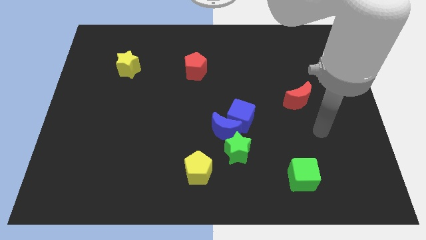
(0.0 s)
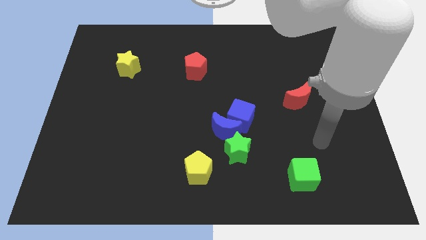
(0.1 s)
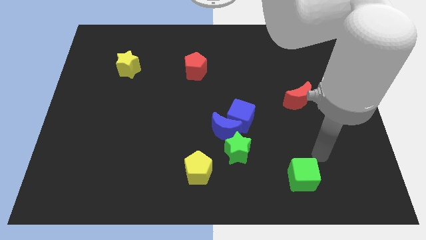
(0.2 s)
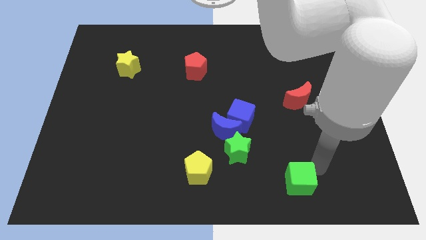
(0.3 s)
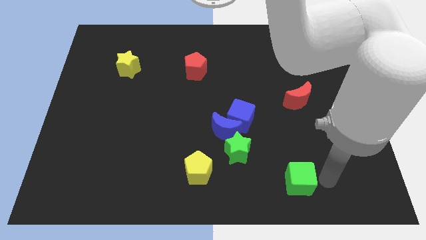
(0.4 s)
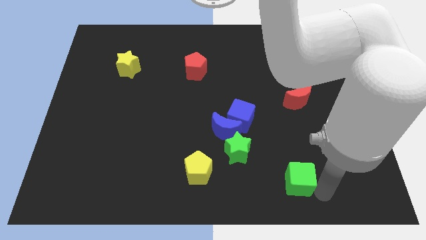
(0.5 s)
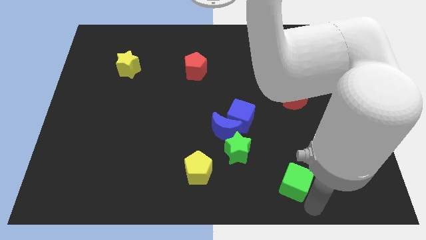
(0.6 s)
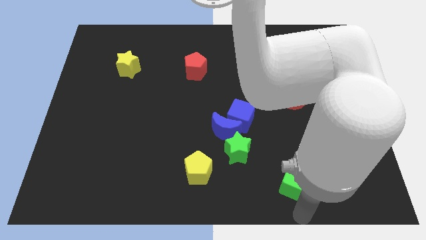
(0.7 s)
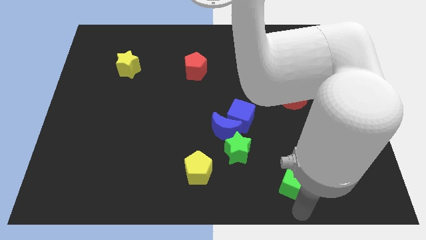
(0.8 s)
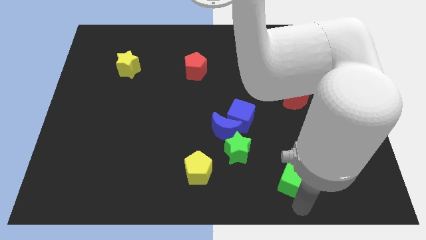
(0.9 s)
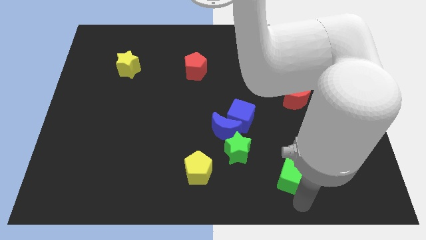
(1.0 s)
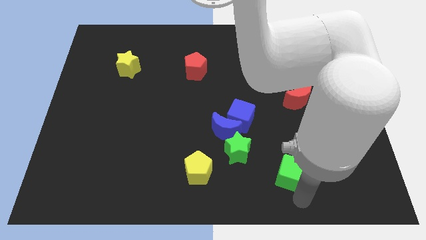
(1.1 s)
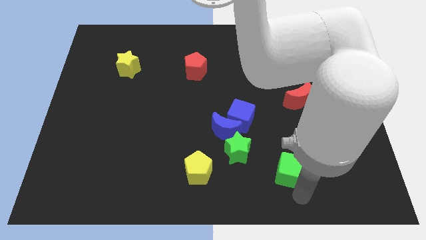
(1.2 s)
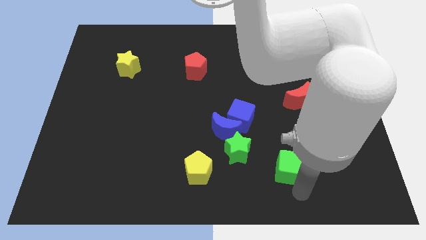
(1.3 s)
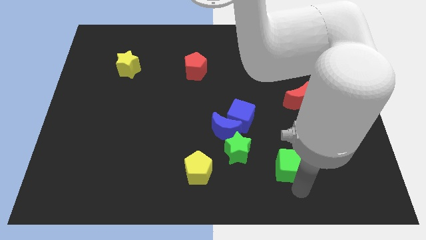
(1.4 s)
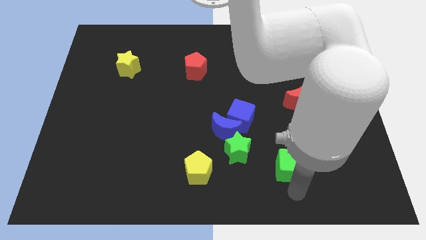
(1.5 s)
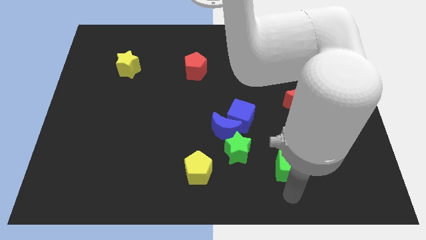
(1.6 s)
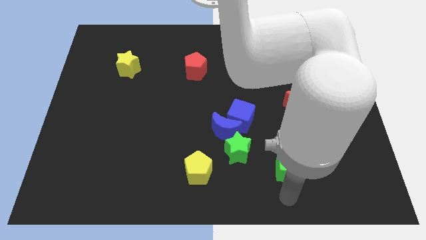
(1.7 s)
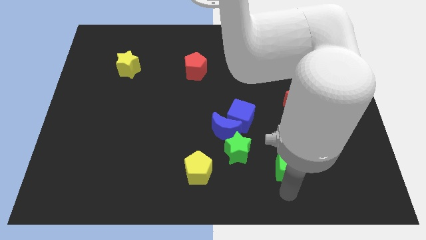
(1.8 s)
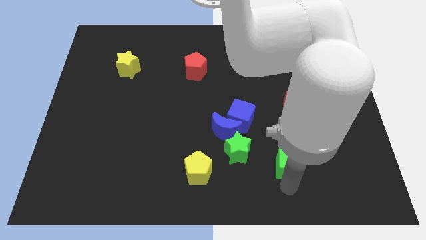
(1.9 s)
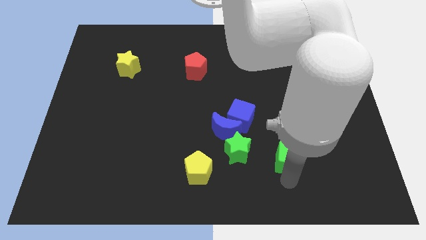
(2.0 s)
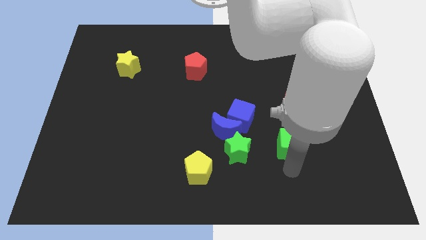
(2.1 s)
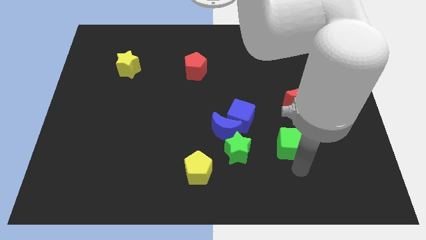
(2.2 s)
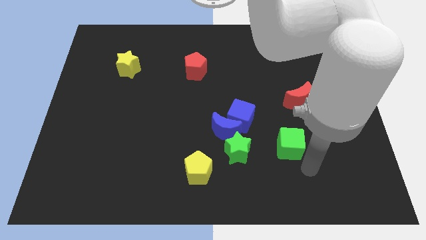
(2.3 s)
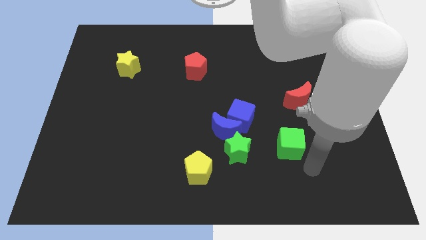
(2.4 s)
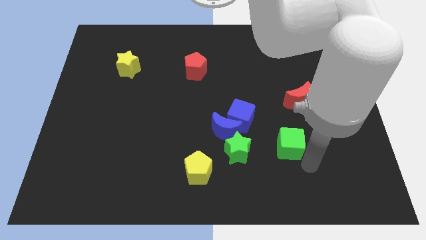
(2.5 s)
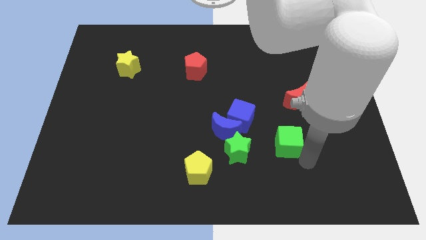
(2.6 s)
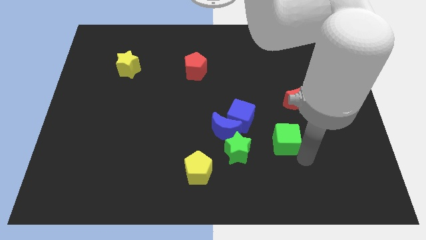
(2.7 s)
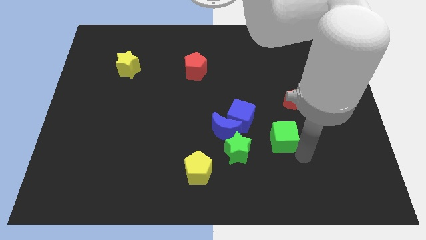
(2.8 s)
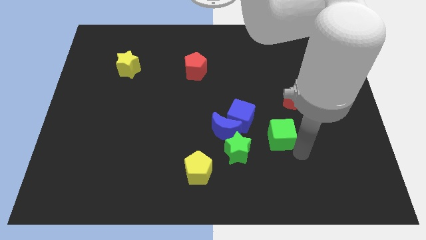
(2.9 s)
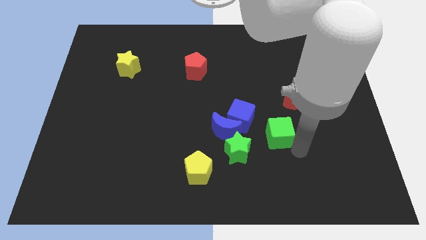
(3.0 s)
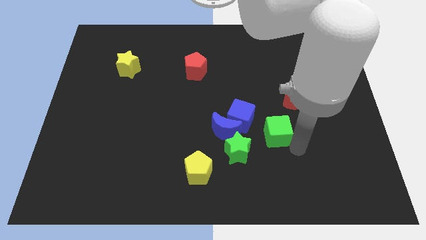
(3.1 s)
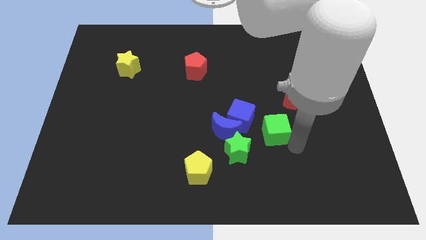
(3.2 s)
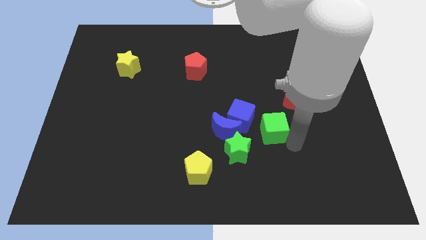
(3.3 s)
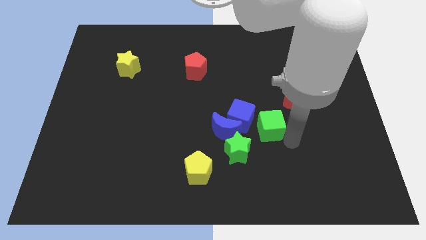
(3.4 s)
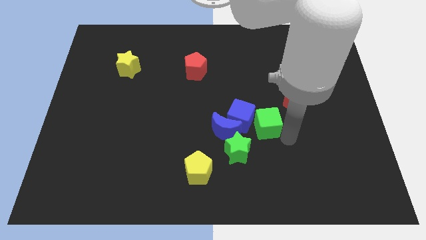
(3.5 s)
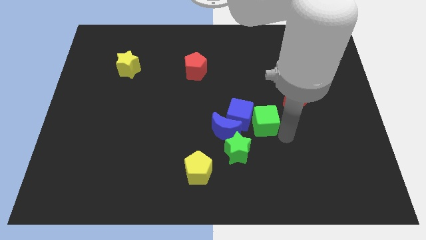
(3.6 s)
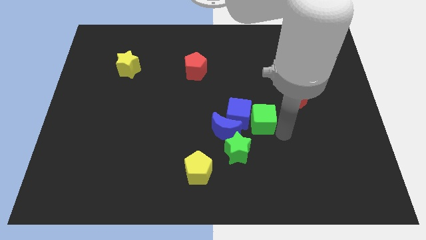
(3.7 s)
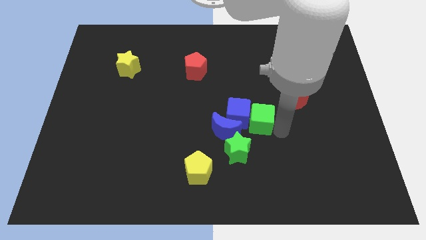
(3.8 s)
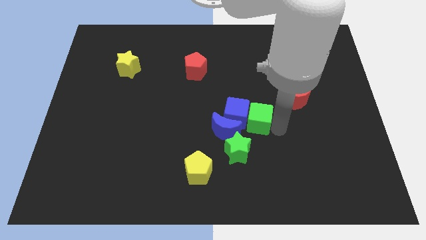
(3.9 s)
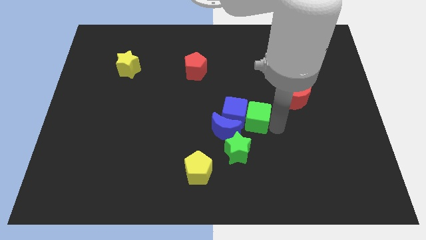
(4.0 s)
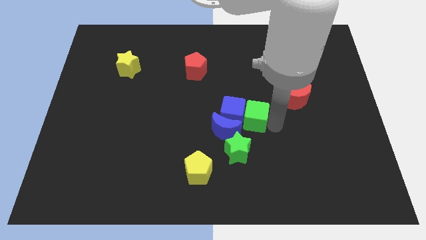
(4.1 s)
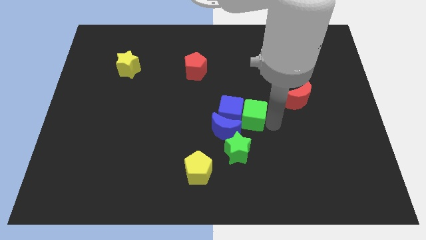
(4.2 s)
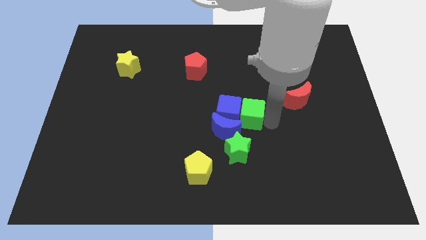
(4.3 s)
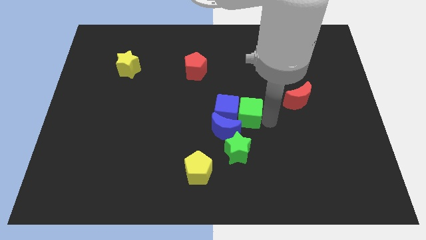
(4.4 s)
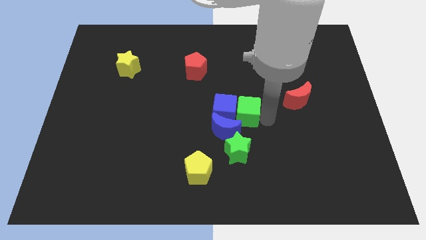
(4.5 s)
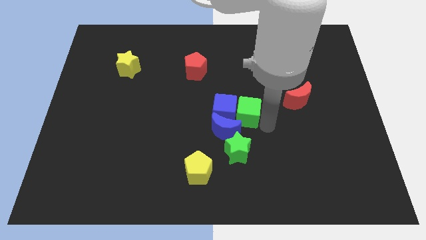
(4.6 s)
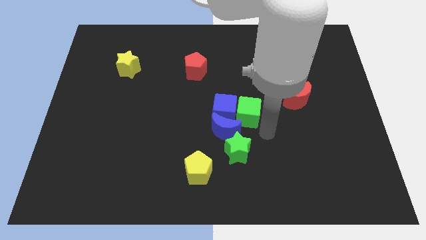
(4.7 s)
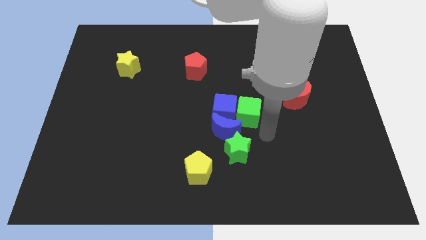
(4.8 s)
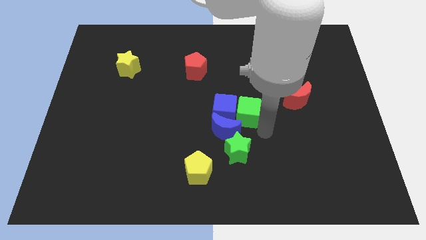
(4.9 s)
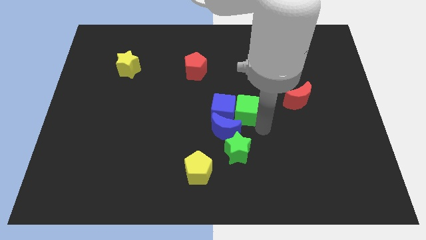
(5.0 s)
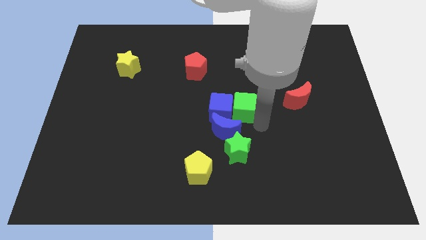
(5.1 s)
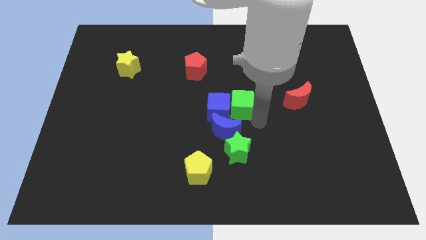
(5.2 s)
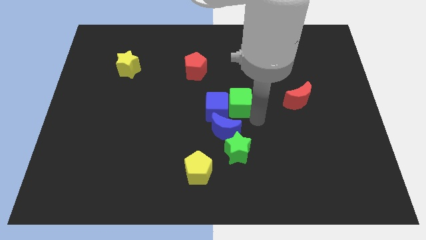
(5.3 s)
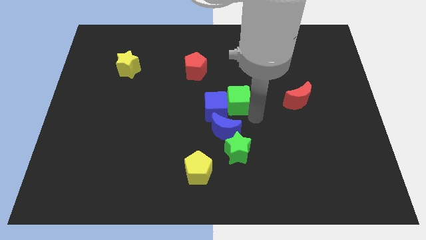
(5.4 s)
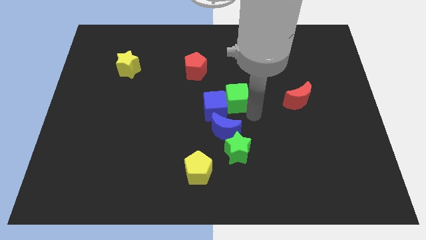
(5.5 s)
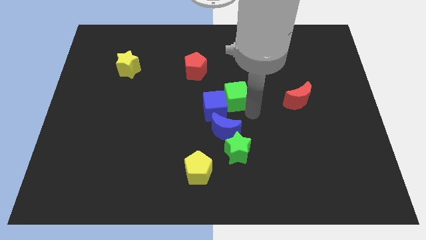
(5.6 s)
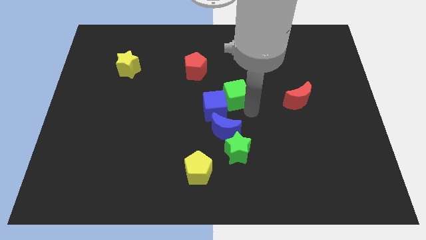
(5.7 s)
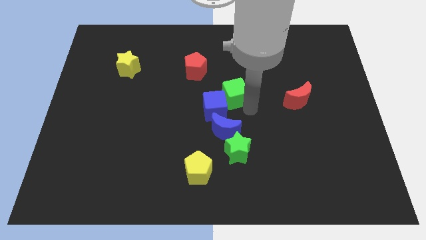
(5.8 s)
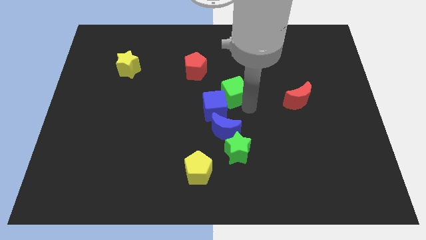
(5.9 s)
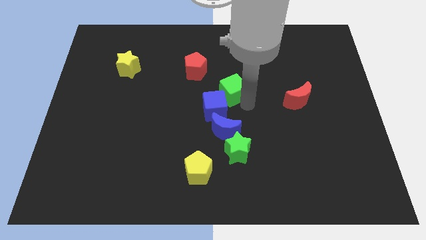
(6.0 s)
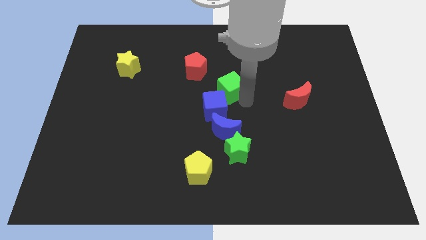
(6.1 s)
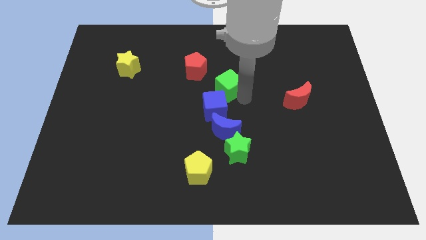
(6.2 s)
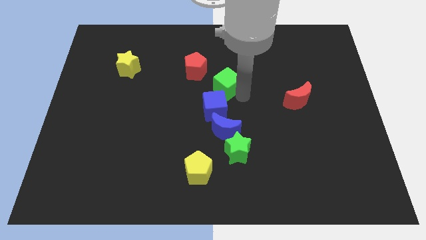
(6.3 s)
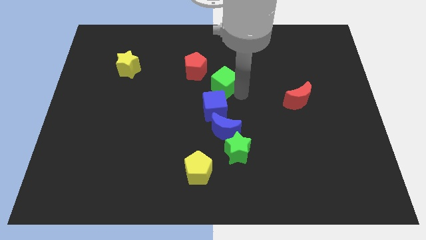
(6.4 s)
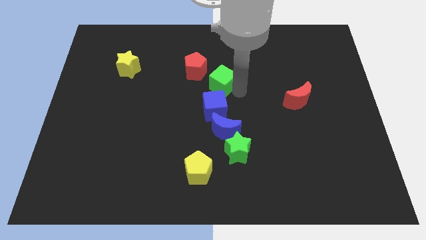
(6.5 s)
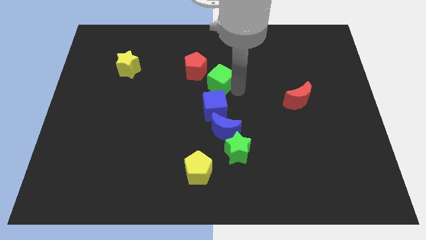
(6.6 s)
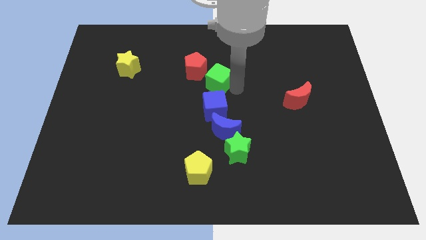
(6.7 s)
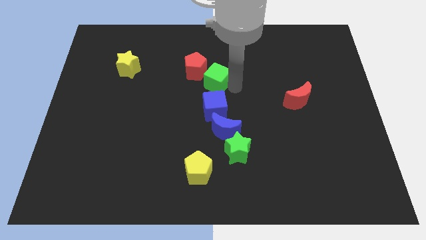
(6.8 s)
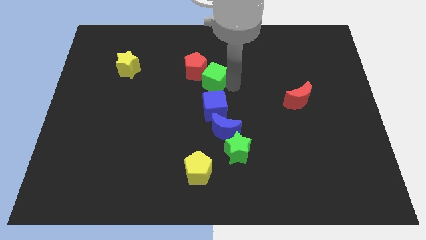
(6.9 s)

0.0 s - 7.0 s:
put the green cube close to the red pentagon

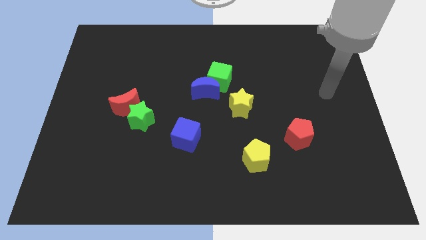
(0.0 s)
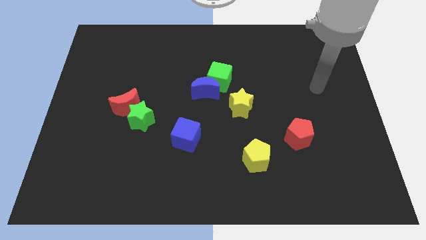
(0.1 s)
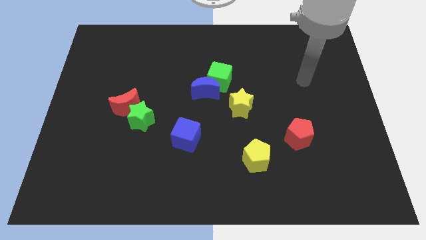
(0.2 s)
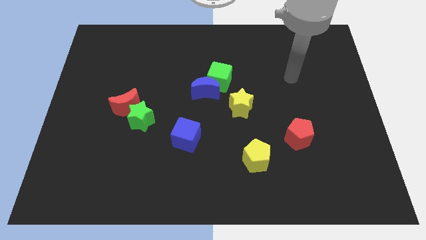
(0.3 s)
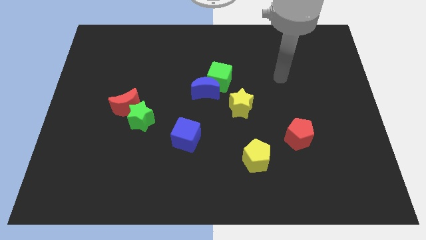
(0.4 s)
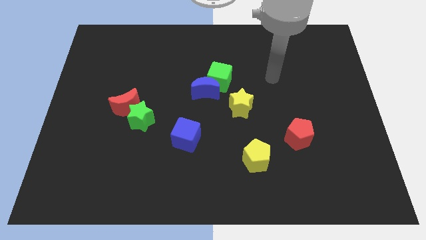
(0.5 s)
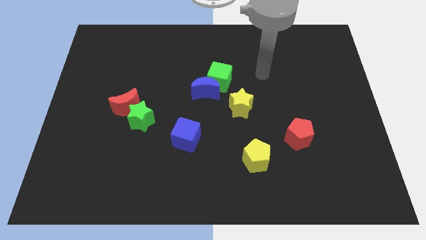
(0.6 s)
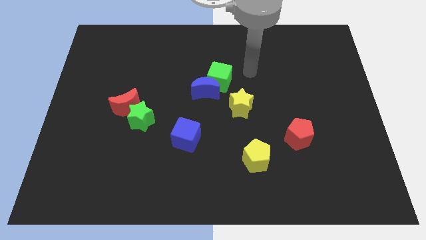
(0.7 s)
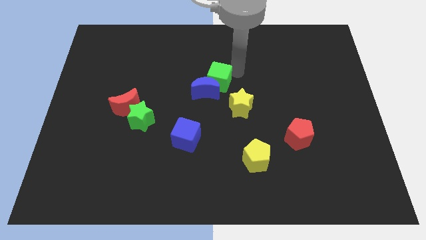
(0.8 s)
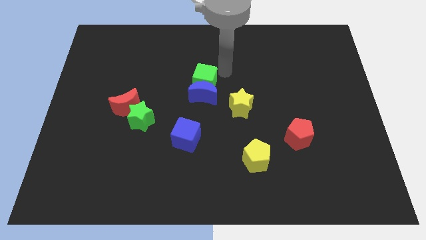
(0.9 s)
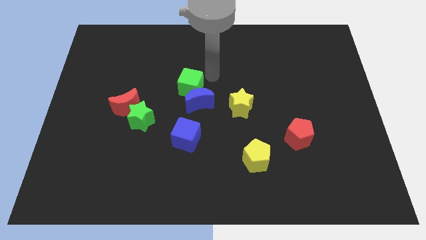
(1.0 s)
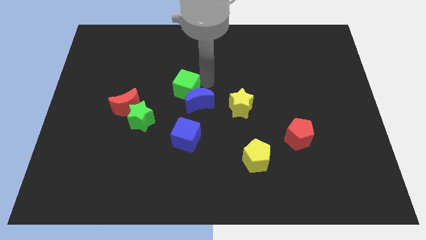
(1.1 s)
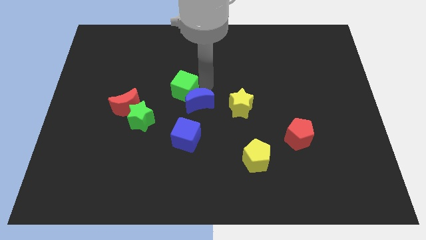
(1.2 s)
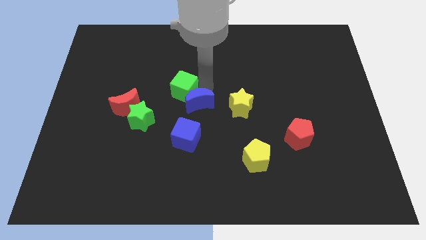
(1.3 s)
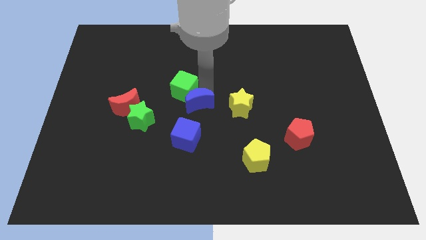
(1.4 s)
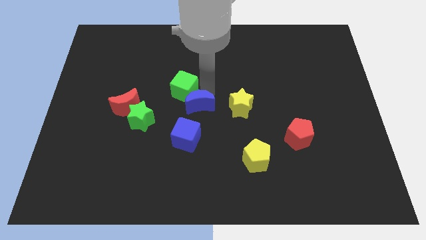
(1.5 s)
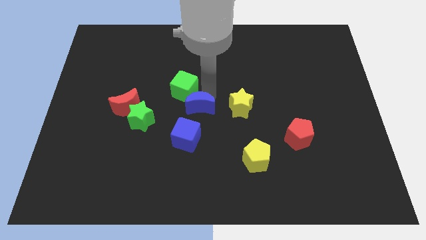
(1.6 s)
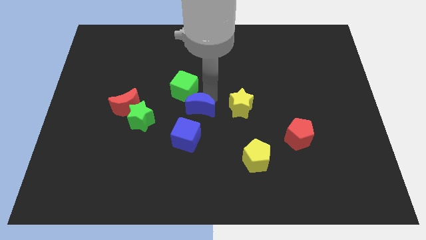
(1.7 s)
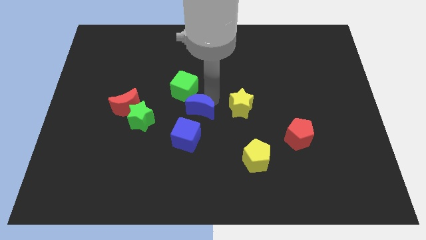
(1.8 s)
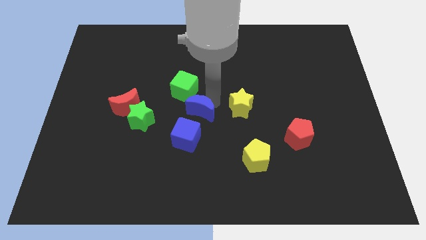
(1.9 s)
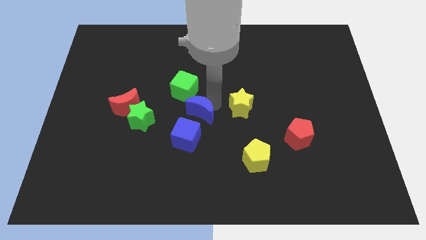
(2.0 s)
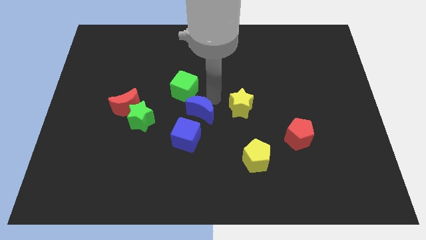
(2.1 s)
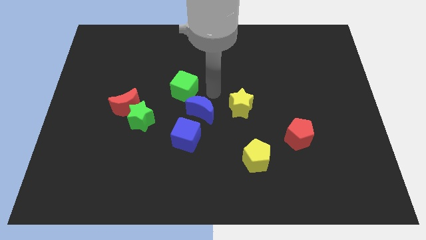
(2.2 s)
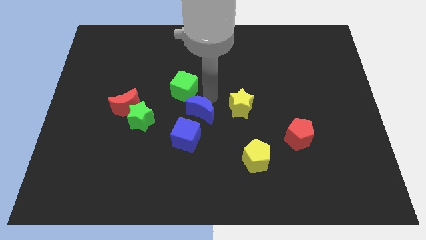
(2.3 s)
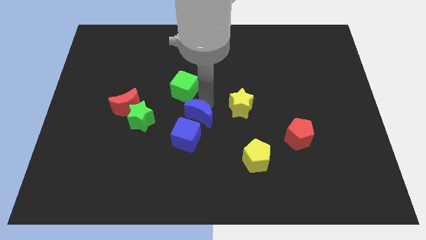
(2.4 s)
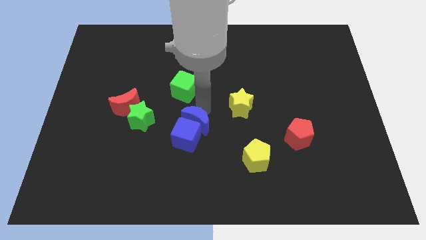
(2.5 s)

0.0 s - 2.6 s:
move the blue moon next to the blue cube
